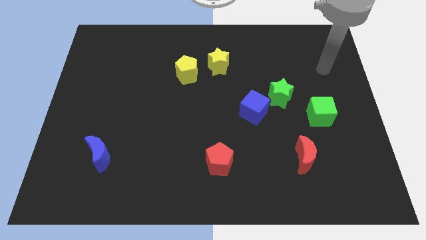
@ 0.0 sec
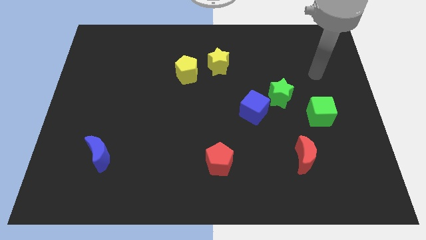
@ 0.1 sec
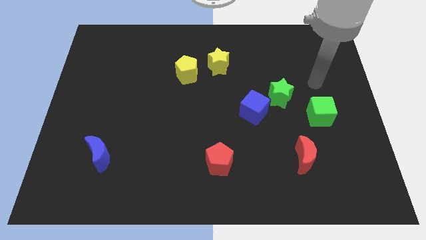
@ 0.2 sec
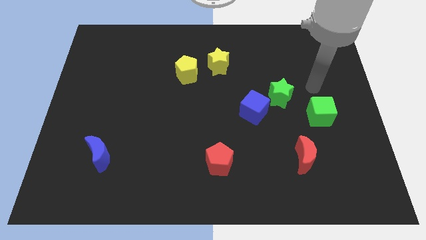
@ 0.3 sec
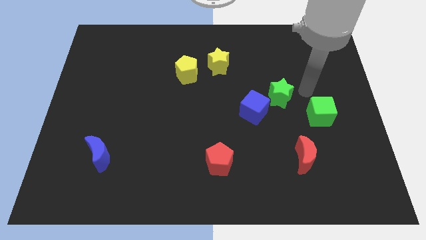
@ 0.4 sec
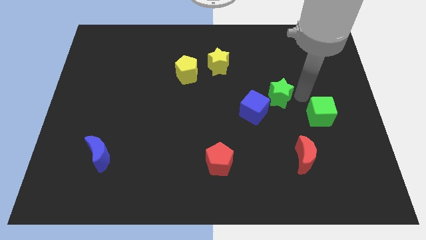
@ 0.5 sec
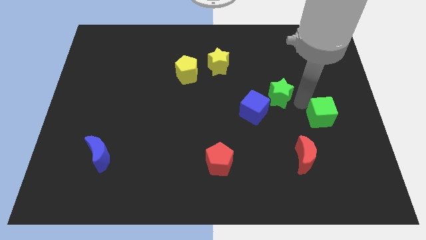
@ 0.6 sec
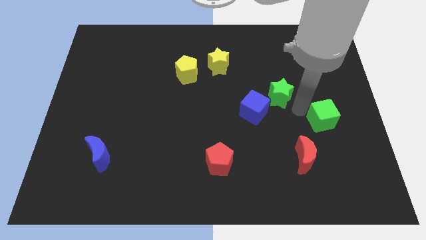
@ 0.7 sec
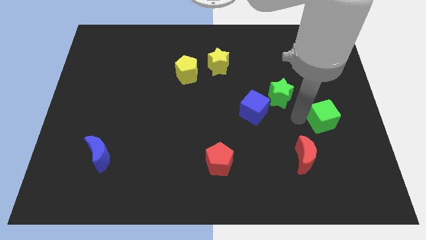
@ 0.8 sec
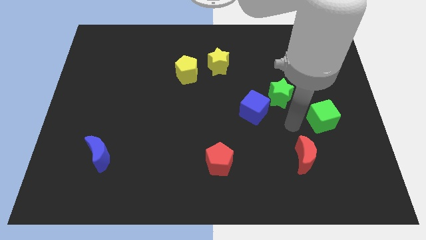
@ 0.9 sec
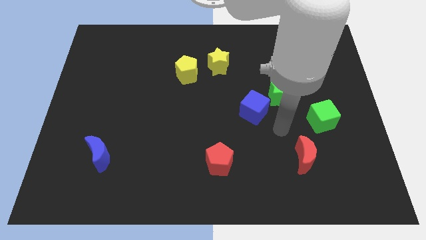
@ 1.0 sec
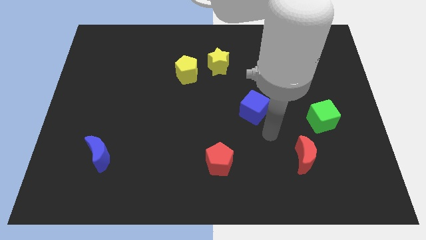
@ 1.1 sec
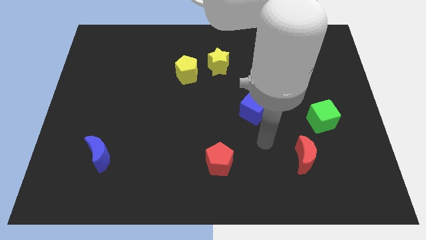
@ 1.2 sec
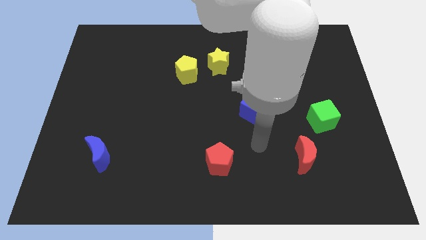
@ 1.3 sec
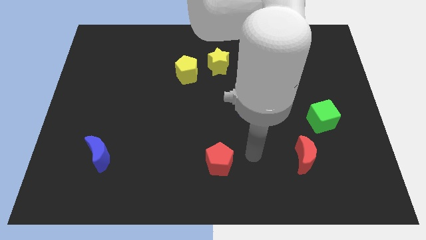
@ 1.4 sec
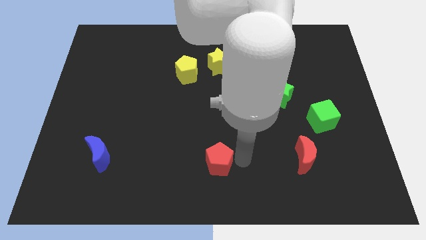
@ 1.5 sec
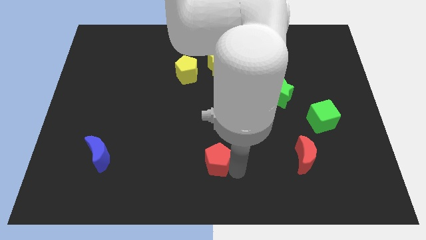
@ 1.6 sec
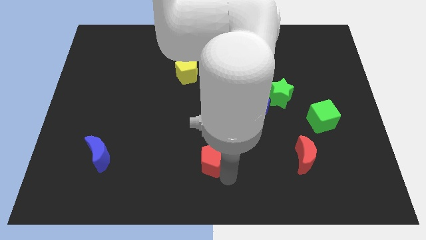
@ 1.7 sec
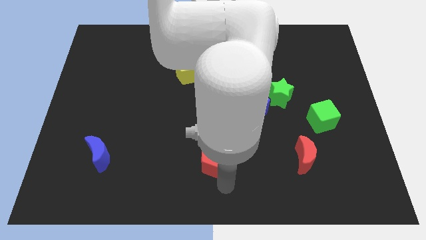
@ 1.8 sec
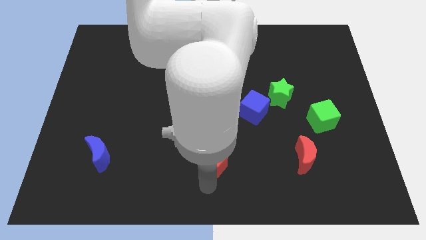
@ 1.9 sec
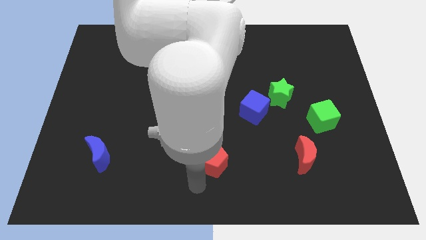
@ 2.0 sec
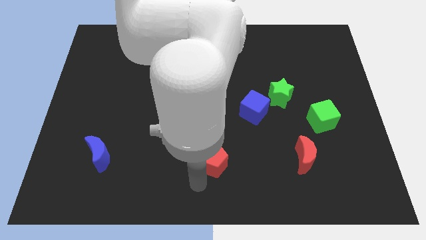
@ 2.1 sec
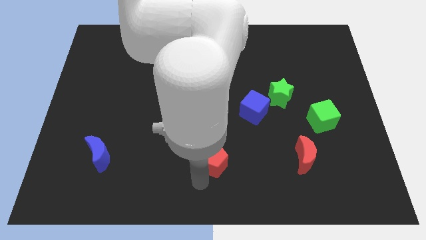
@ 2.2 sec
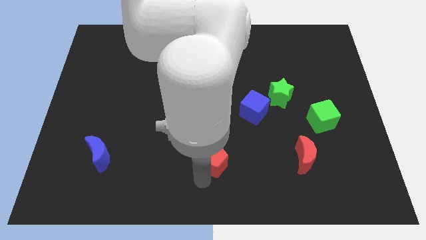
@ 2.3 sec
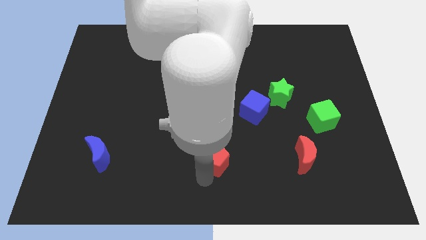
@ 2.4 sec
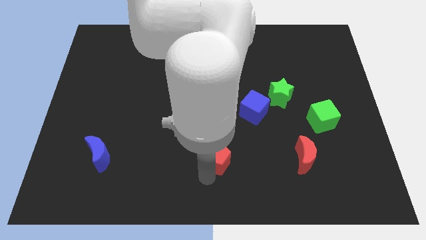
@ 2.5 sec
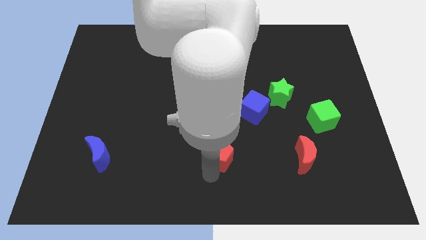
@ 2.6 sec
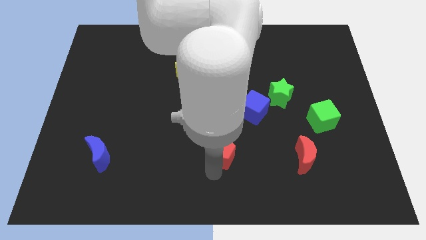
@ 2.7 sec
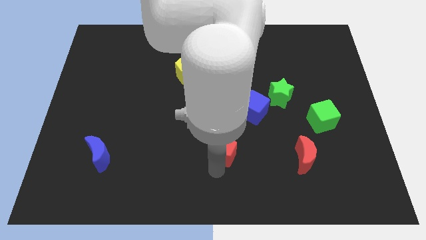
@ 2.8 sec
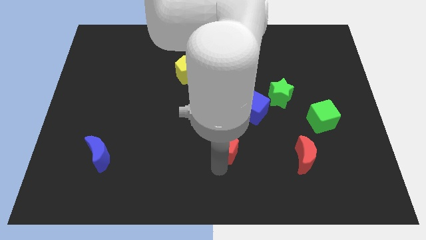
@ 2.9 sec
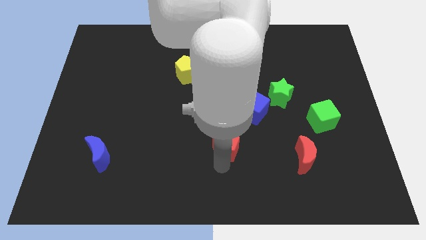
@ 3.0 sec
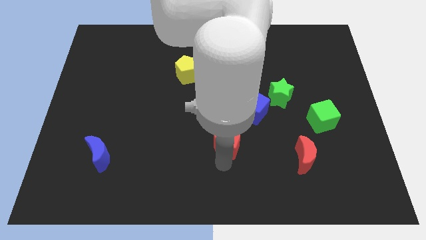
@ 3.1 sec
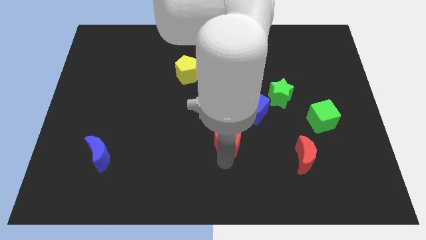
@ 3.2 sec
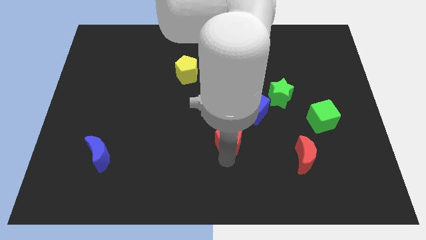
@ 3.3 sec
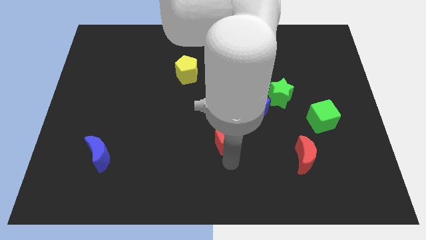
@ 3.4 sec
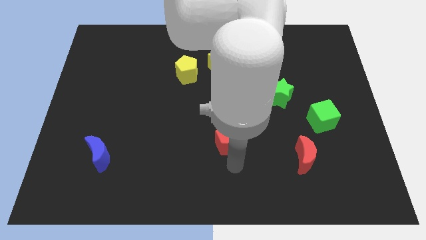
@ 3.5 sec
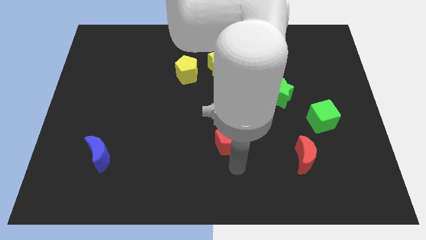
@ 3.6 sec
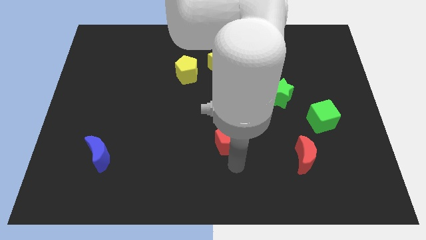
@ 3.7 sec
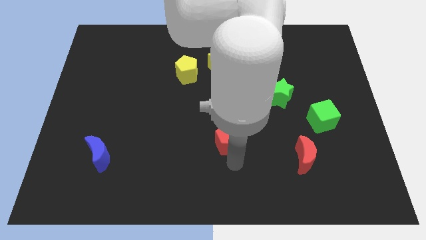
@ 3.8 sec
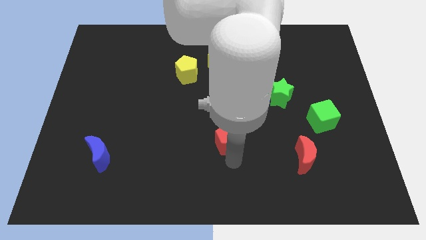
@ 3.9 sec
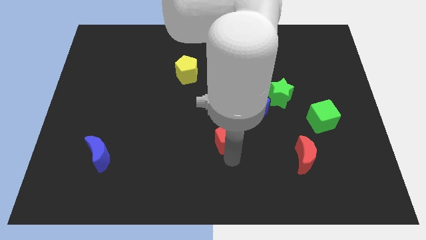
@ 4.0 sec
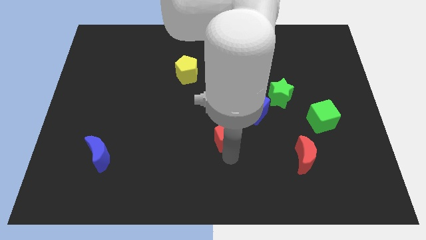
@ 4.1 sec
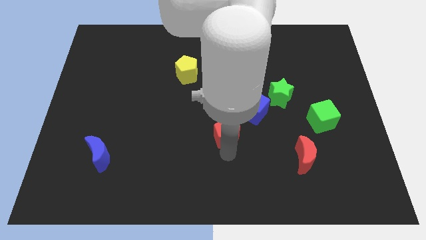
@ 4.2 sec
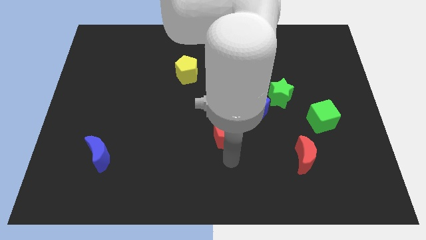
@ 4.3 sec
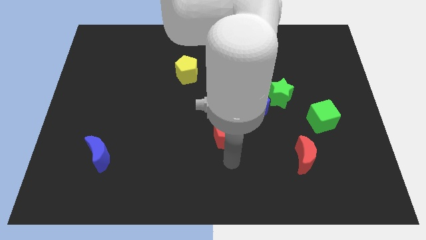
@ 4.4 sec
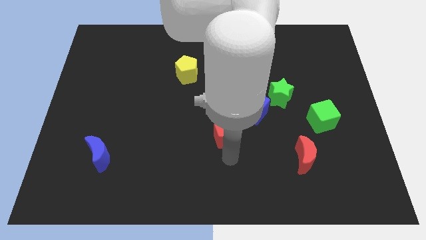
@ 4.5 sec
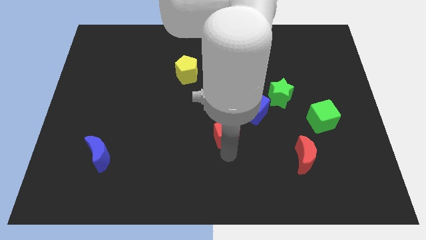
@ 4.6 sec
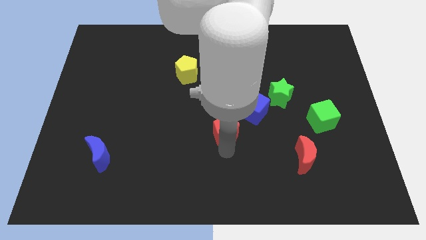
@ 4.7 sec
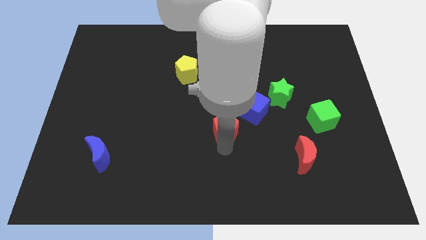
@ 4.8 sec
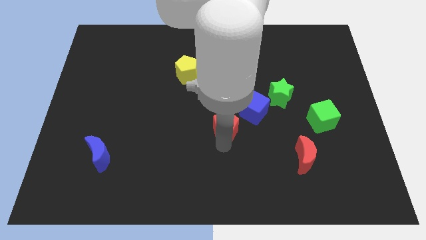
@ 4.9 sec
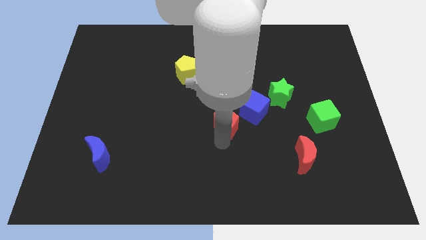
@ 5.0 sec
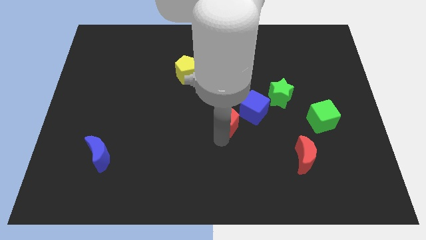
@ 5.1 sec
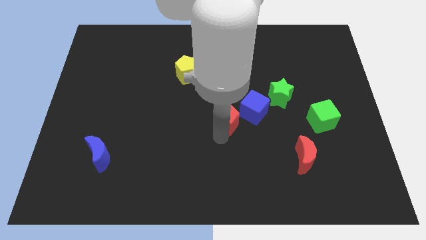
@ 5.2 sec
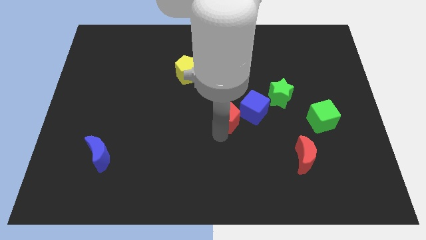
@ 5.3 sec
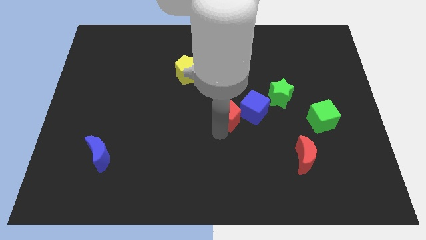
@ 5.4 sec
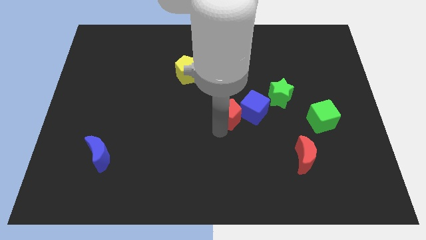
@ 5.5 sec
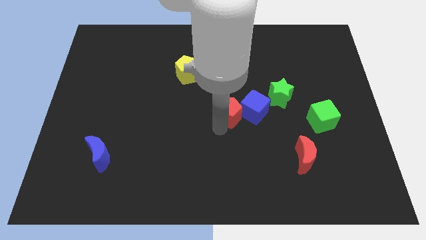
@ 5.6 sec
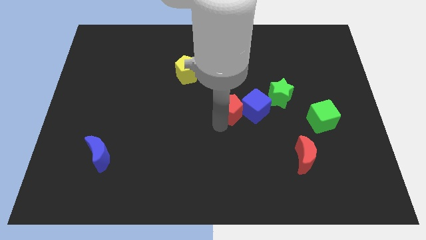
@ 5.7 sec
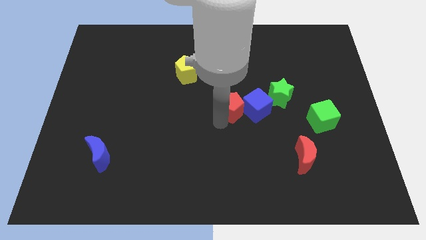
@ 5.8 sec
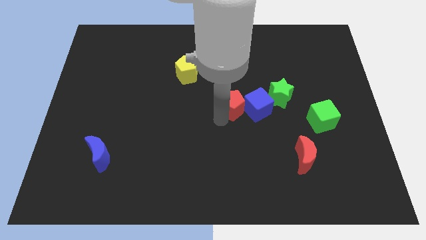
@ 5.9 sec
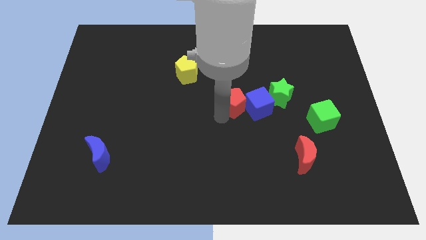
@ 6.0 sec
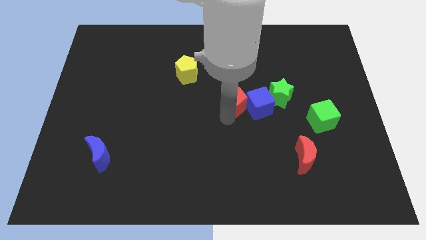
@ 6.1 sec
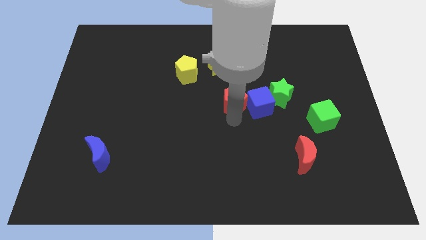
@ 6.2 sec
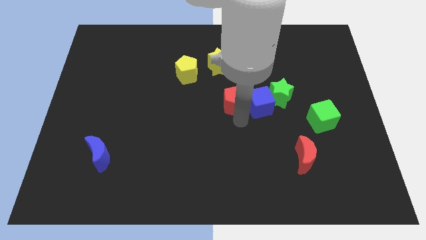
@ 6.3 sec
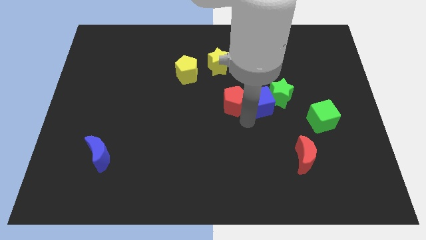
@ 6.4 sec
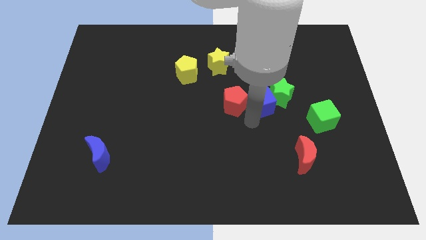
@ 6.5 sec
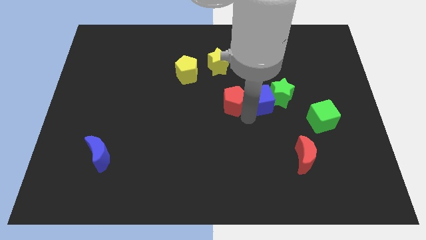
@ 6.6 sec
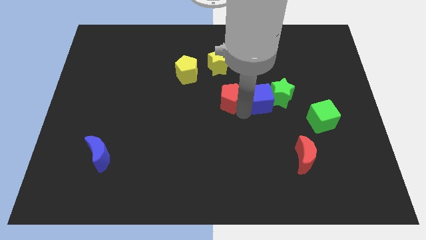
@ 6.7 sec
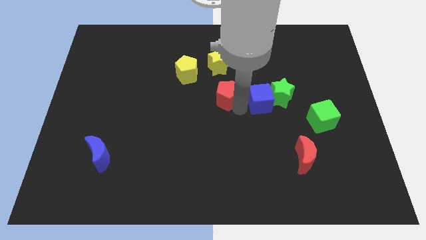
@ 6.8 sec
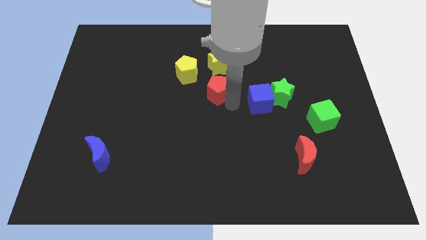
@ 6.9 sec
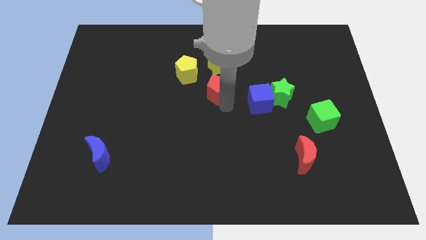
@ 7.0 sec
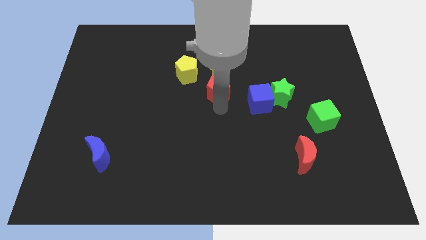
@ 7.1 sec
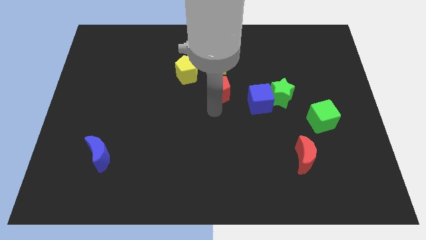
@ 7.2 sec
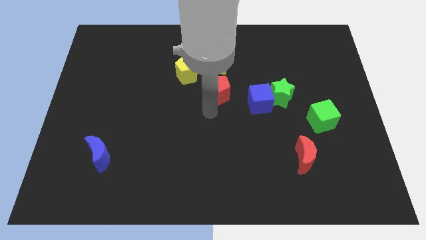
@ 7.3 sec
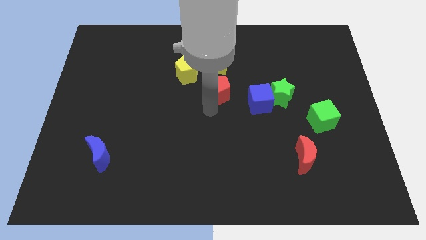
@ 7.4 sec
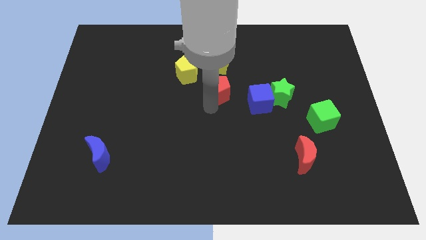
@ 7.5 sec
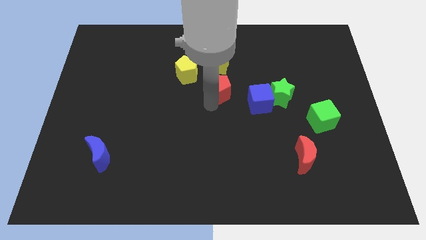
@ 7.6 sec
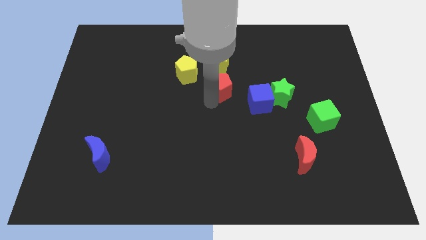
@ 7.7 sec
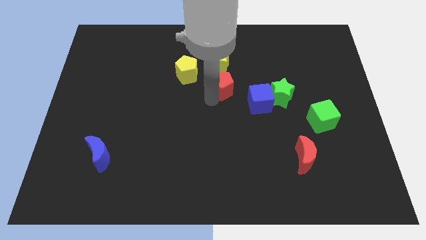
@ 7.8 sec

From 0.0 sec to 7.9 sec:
move the red pentagon just right of the yellow pentagon
